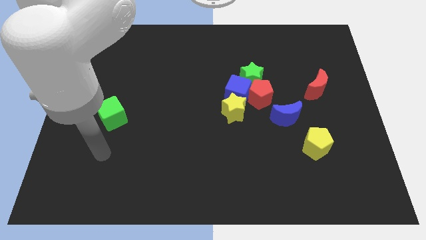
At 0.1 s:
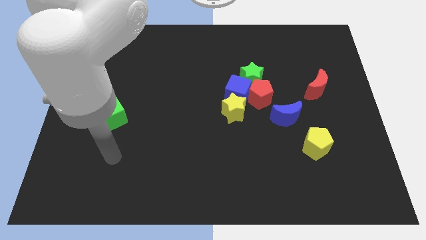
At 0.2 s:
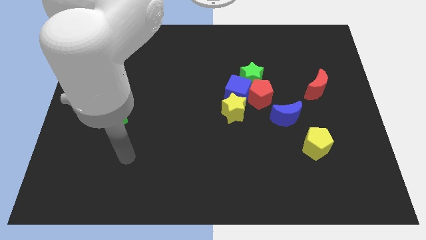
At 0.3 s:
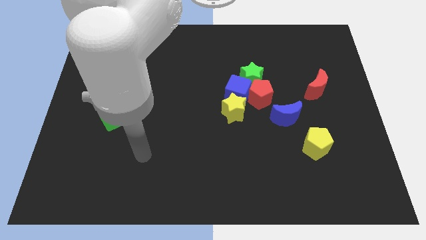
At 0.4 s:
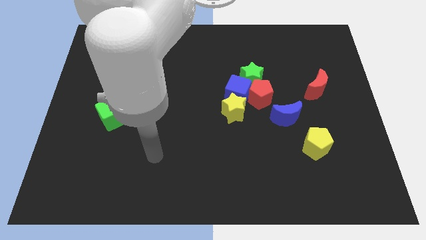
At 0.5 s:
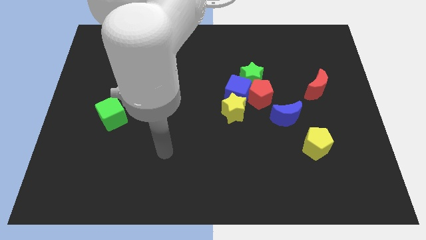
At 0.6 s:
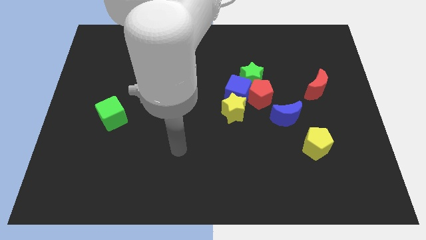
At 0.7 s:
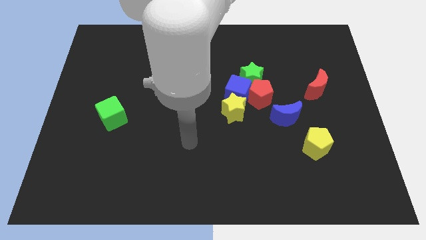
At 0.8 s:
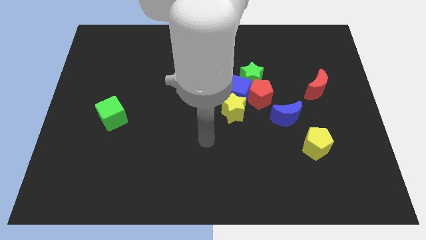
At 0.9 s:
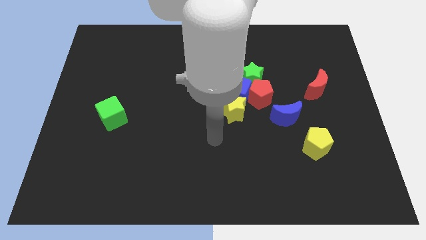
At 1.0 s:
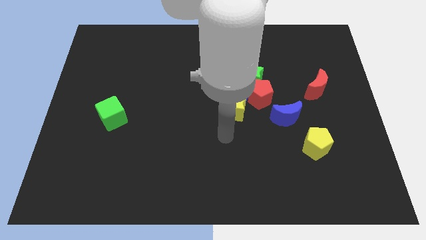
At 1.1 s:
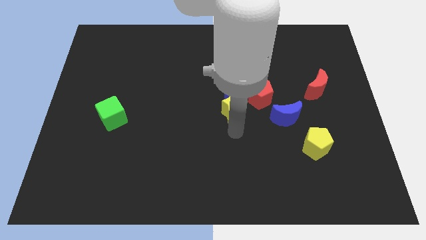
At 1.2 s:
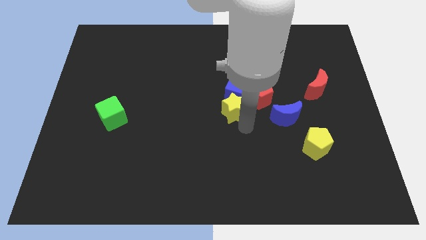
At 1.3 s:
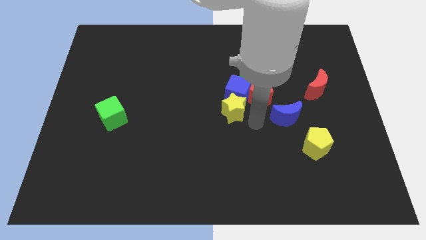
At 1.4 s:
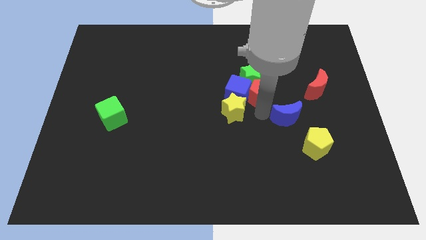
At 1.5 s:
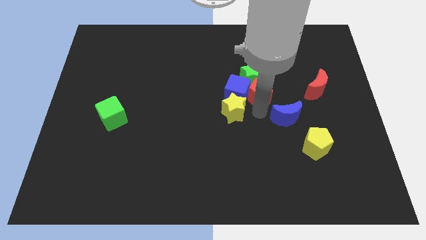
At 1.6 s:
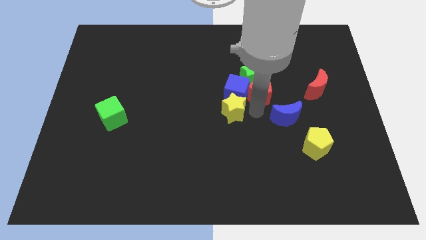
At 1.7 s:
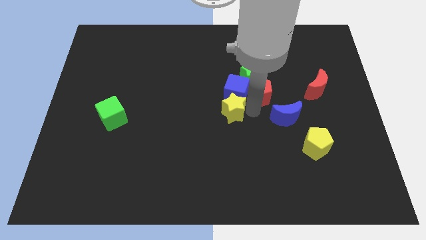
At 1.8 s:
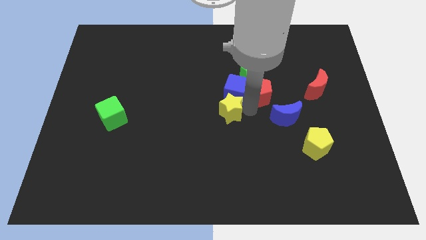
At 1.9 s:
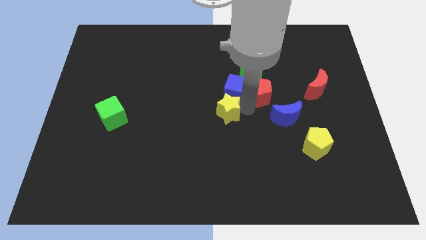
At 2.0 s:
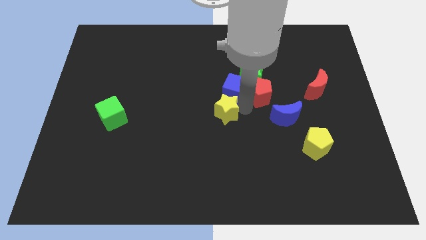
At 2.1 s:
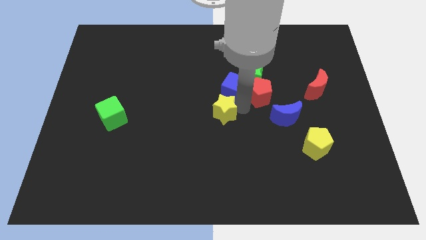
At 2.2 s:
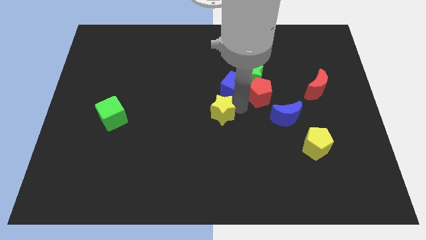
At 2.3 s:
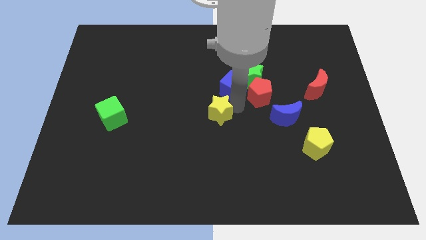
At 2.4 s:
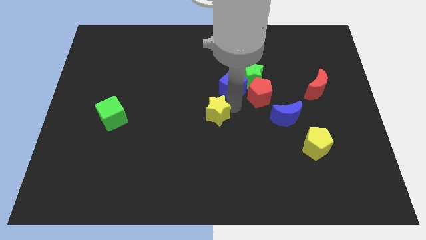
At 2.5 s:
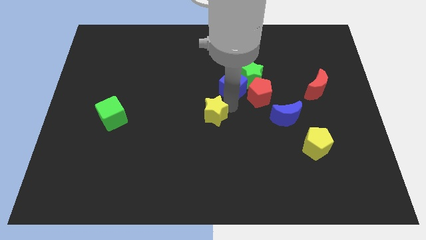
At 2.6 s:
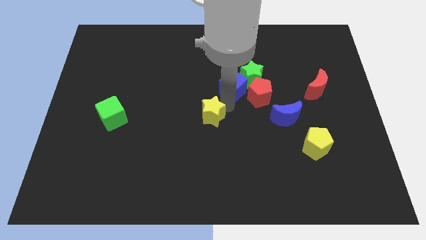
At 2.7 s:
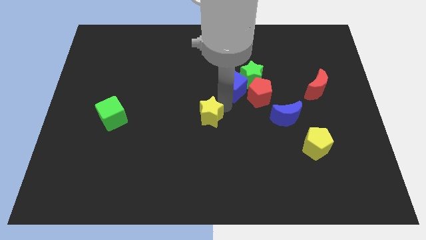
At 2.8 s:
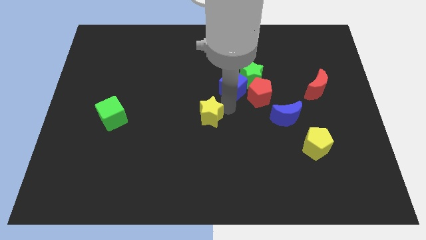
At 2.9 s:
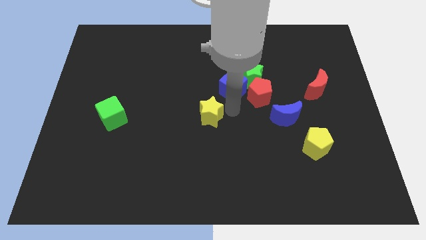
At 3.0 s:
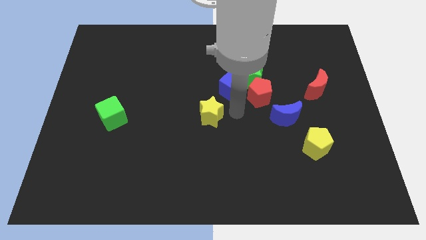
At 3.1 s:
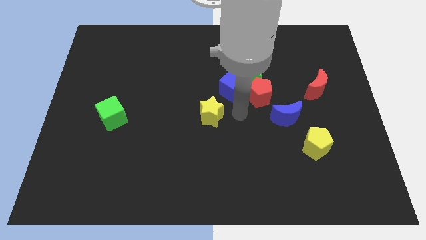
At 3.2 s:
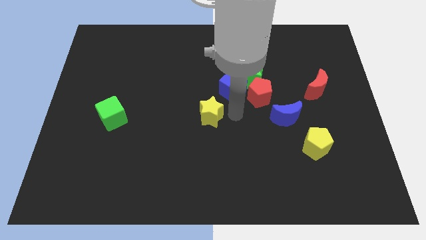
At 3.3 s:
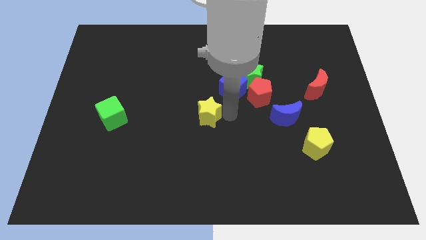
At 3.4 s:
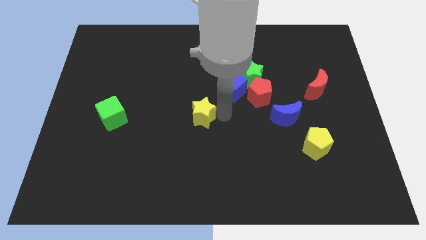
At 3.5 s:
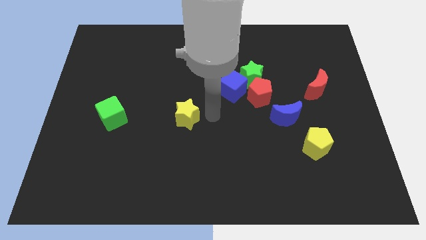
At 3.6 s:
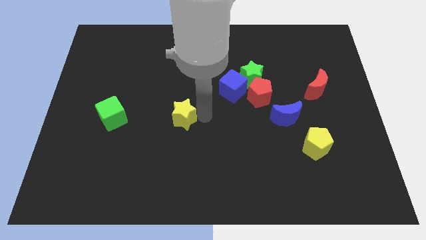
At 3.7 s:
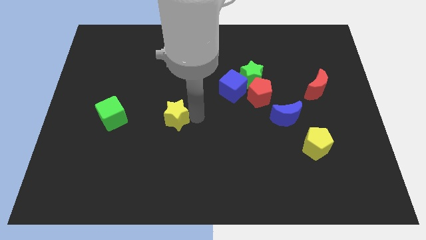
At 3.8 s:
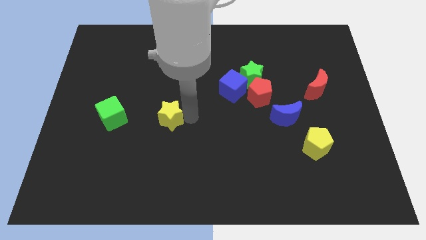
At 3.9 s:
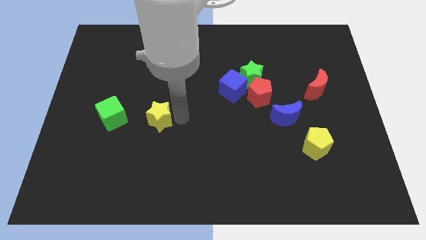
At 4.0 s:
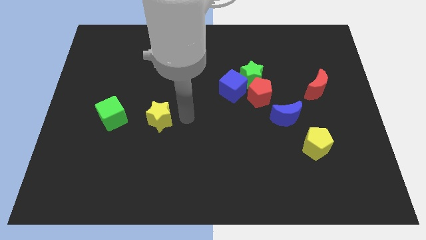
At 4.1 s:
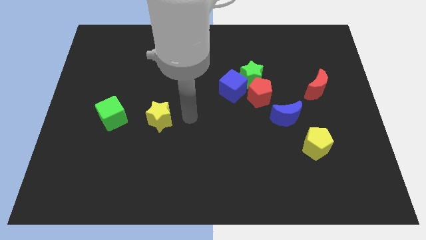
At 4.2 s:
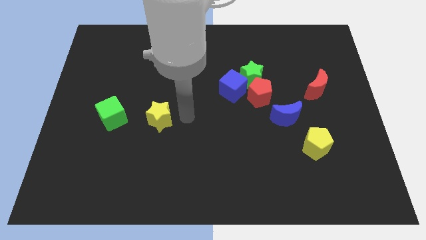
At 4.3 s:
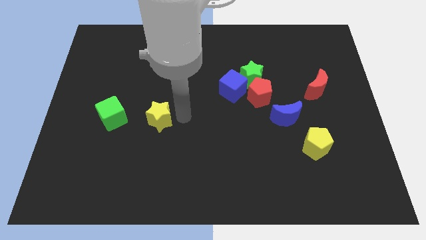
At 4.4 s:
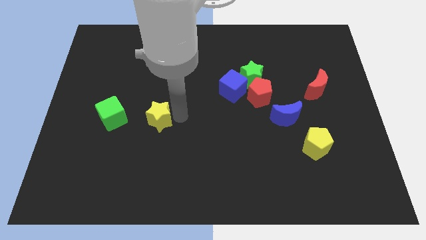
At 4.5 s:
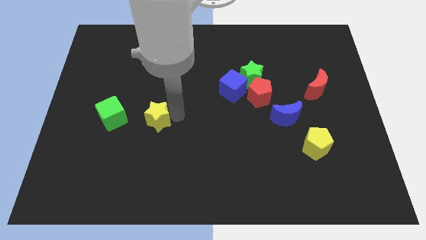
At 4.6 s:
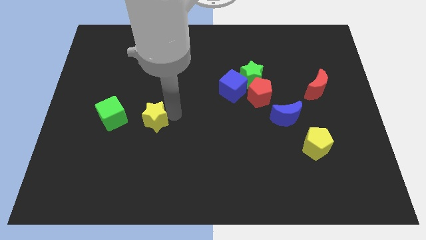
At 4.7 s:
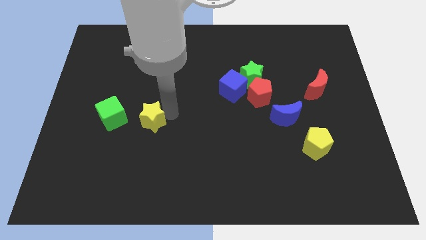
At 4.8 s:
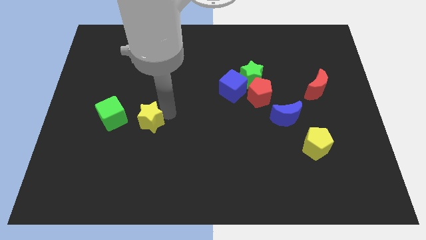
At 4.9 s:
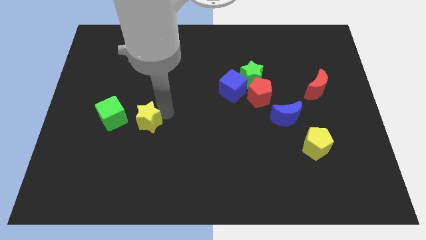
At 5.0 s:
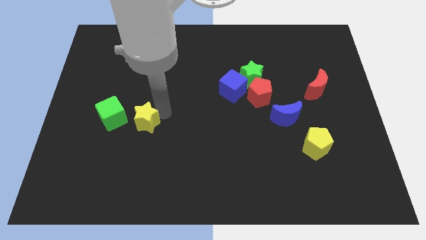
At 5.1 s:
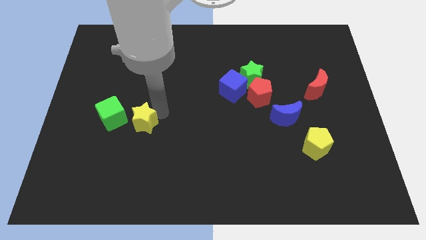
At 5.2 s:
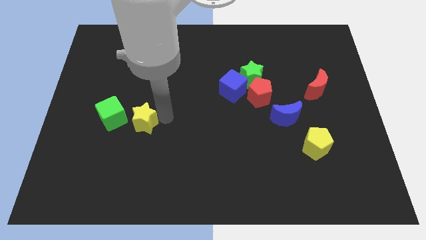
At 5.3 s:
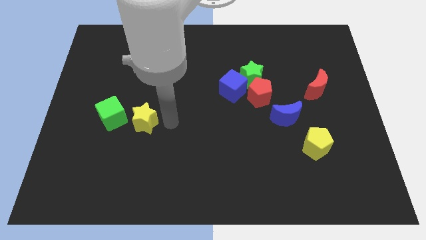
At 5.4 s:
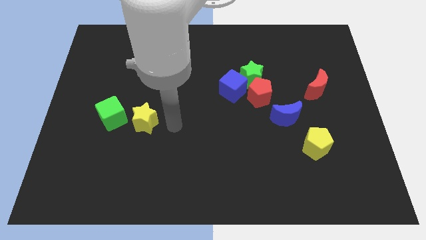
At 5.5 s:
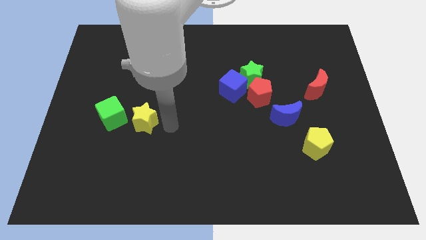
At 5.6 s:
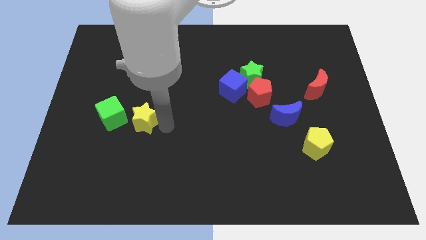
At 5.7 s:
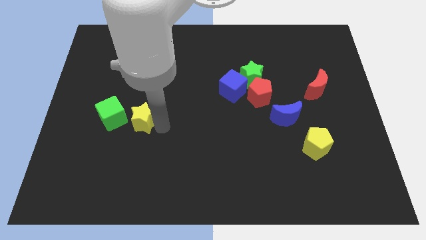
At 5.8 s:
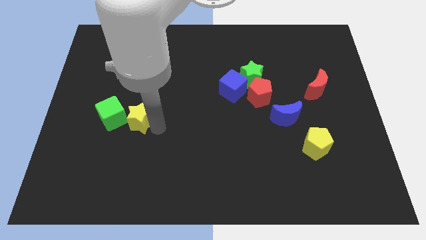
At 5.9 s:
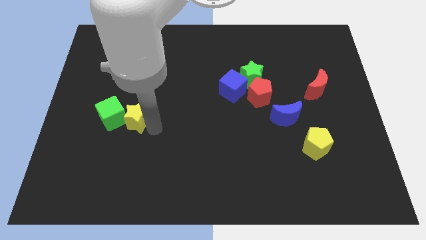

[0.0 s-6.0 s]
put the yellow star towards the green cube

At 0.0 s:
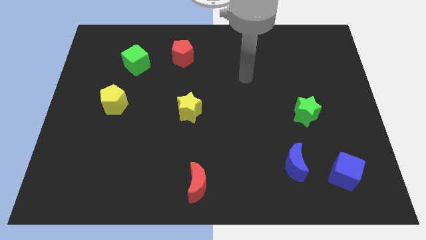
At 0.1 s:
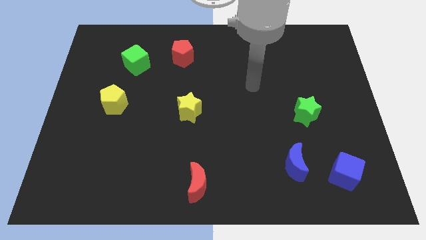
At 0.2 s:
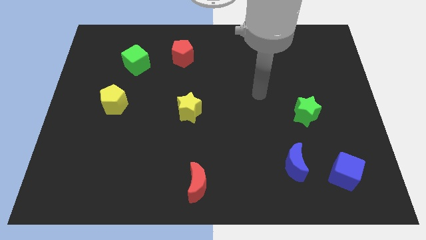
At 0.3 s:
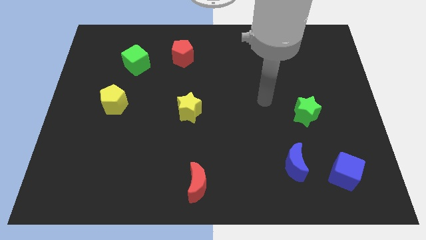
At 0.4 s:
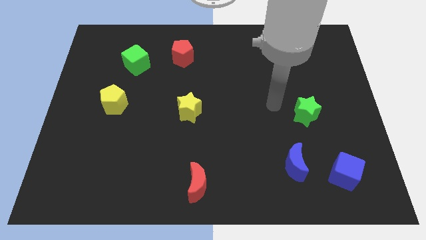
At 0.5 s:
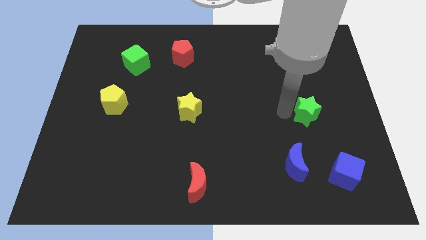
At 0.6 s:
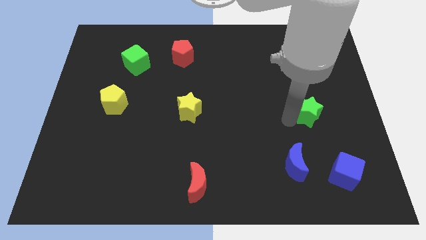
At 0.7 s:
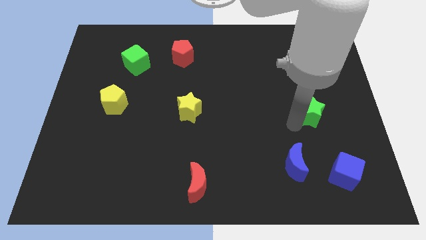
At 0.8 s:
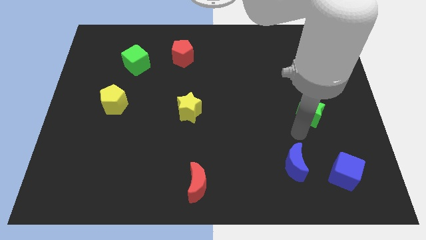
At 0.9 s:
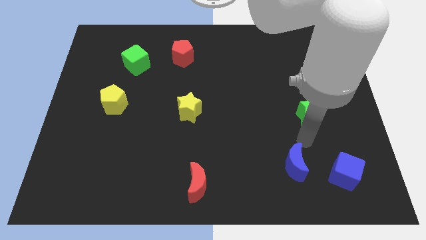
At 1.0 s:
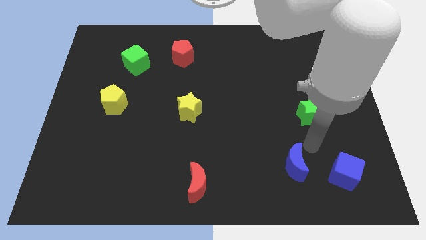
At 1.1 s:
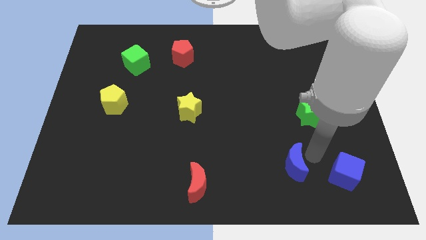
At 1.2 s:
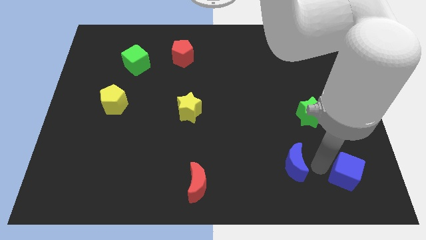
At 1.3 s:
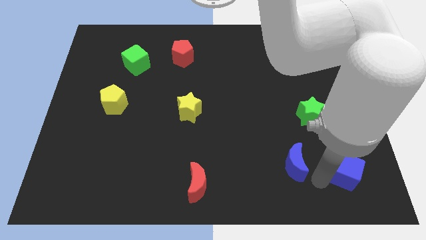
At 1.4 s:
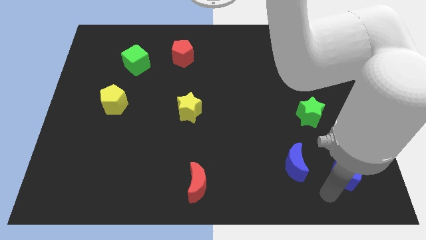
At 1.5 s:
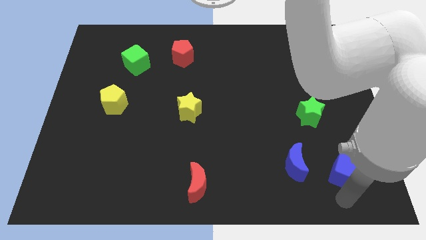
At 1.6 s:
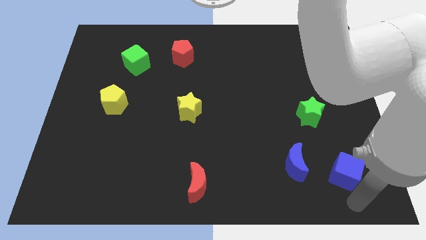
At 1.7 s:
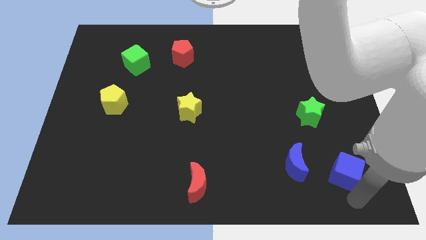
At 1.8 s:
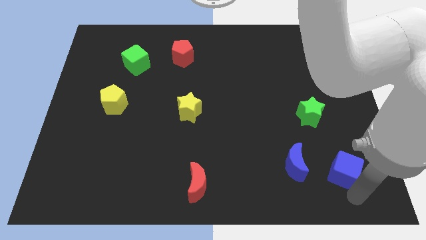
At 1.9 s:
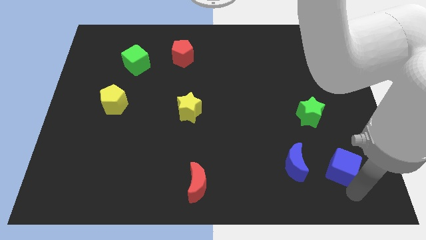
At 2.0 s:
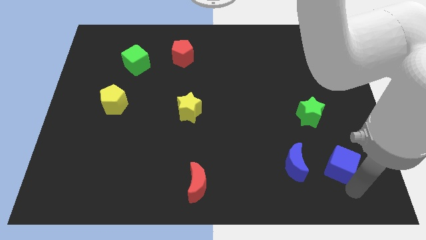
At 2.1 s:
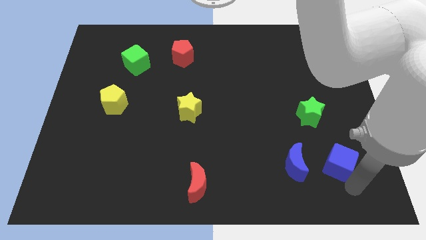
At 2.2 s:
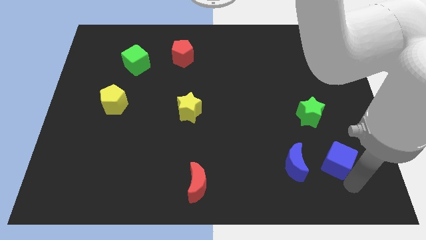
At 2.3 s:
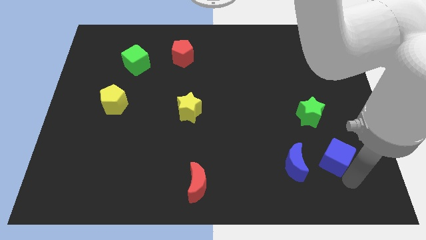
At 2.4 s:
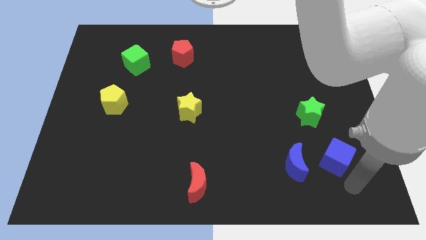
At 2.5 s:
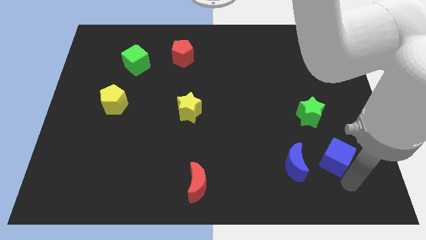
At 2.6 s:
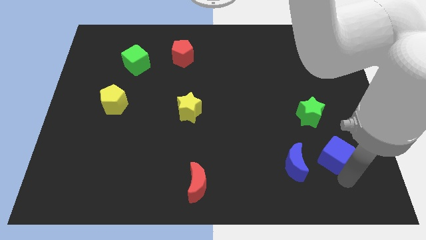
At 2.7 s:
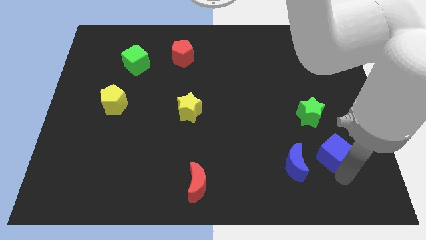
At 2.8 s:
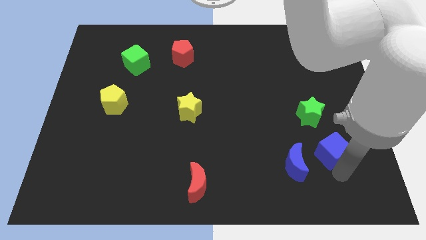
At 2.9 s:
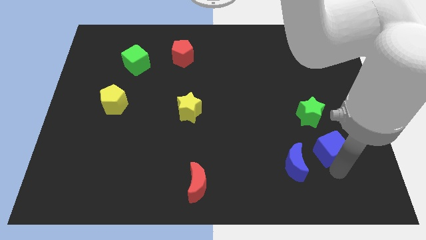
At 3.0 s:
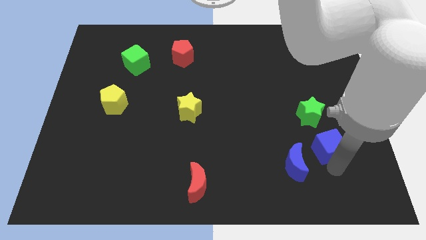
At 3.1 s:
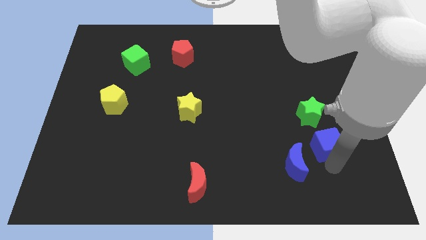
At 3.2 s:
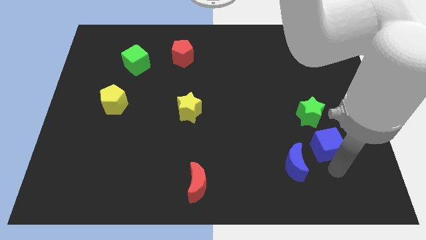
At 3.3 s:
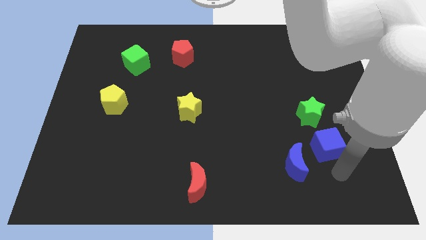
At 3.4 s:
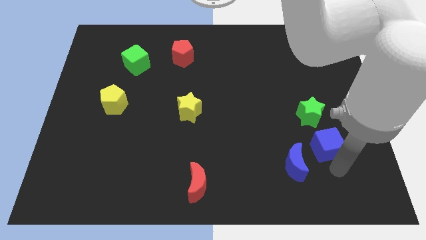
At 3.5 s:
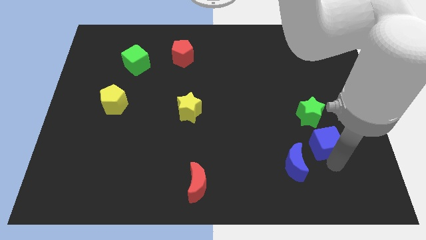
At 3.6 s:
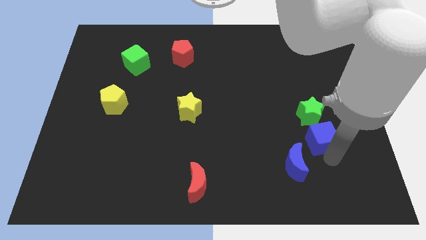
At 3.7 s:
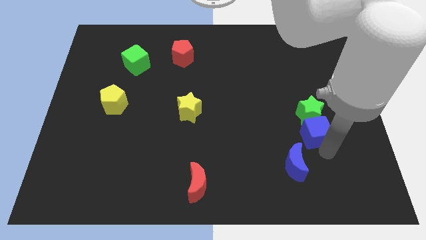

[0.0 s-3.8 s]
push the blue cube towards the green star
